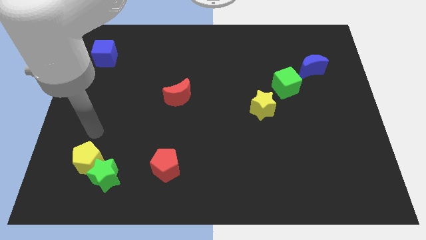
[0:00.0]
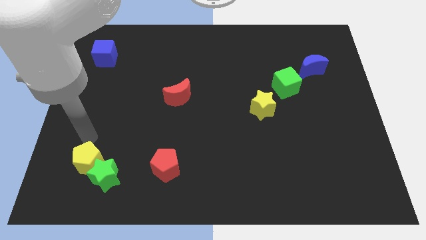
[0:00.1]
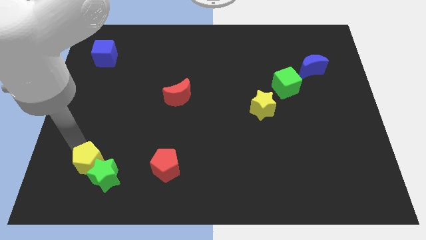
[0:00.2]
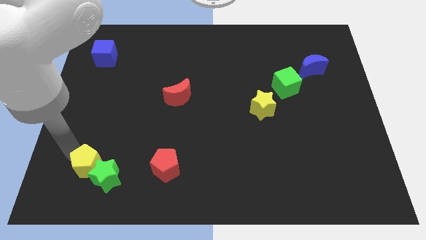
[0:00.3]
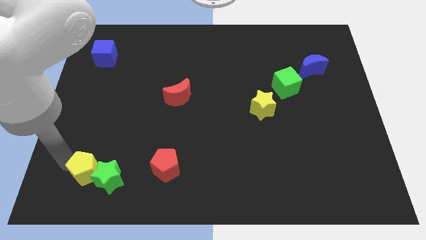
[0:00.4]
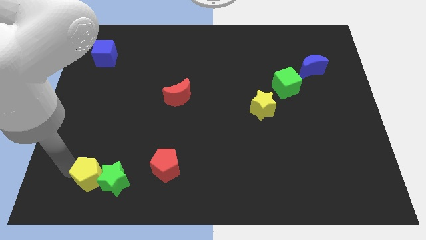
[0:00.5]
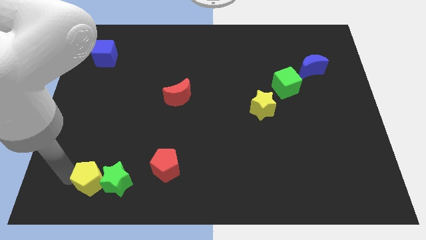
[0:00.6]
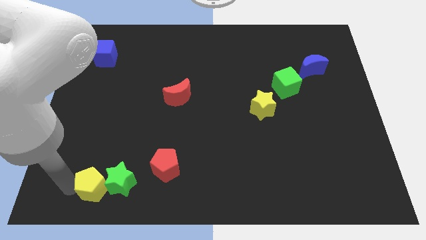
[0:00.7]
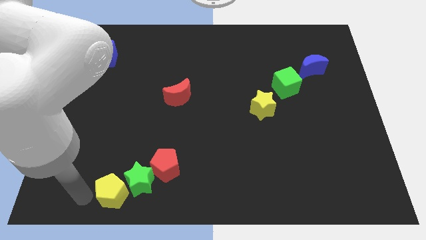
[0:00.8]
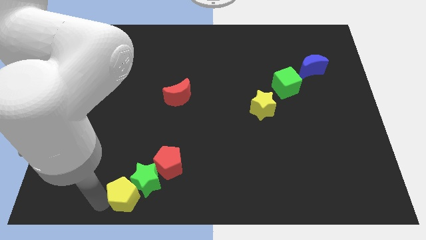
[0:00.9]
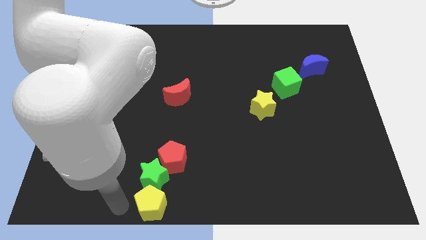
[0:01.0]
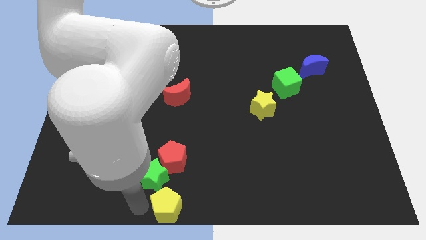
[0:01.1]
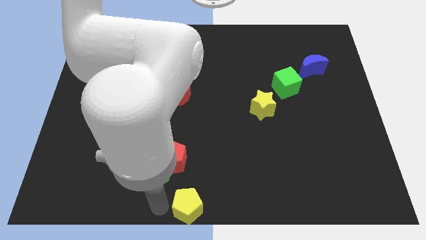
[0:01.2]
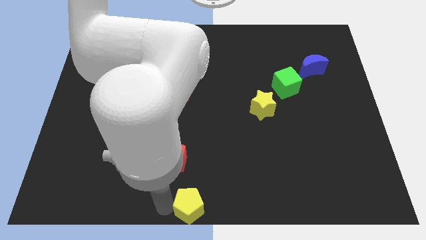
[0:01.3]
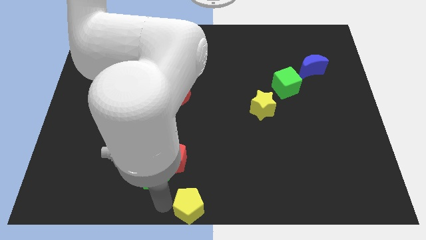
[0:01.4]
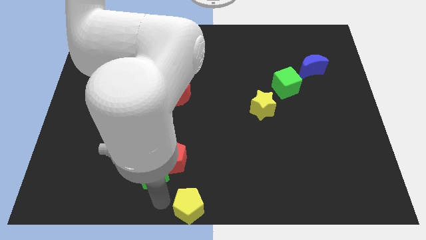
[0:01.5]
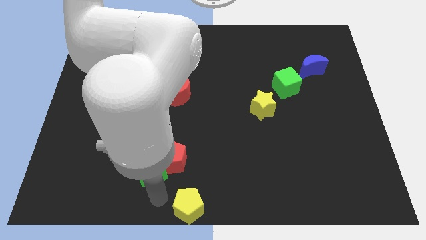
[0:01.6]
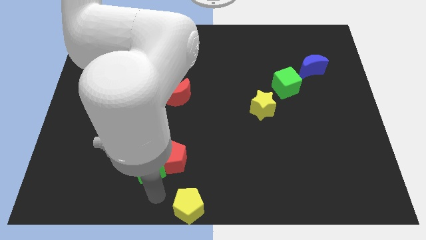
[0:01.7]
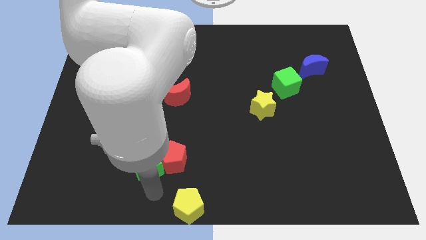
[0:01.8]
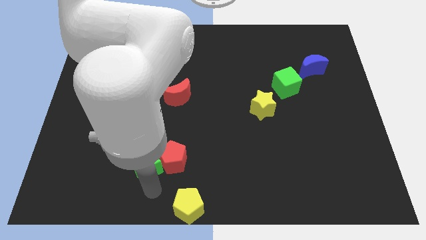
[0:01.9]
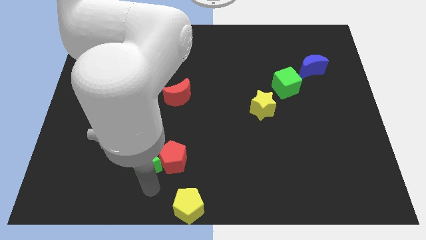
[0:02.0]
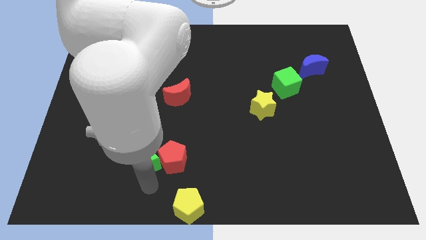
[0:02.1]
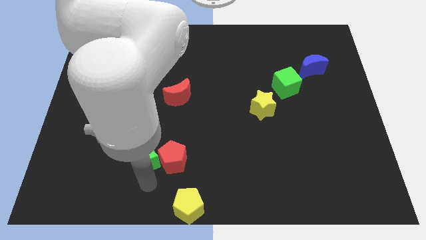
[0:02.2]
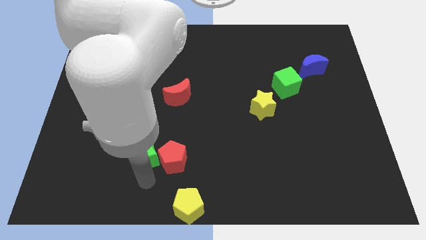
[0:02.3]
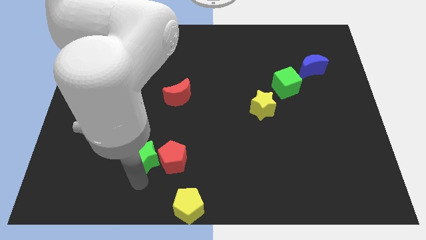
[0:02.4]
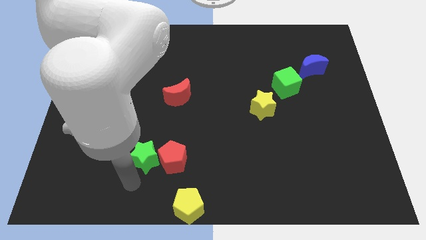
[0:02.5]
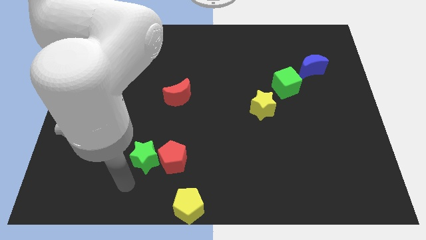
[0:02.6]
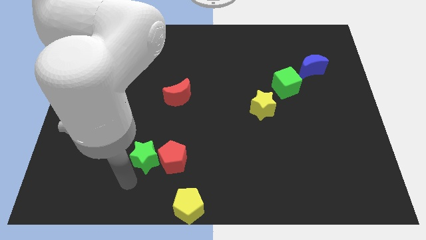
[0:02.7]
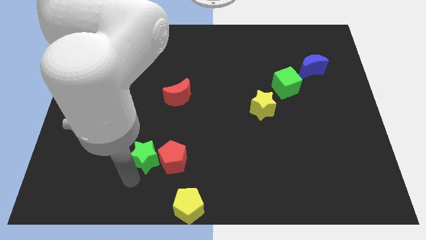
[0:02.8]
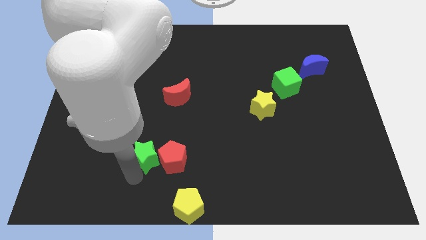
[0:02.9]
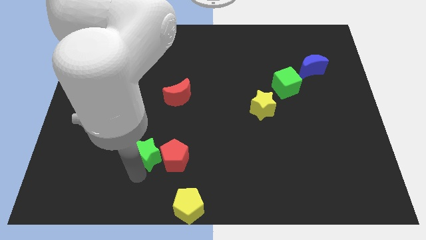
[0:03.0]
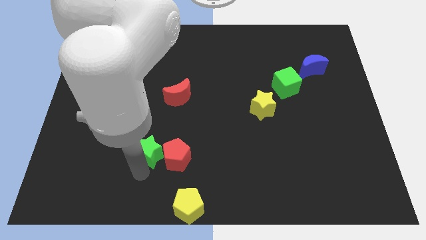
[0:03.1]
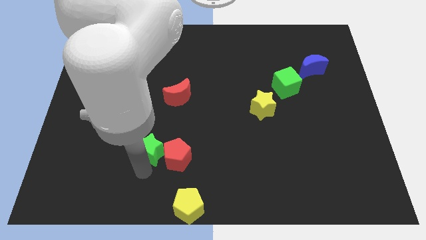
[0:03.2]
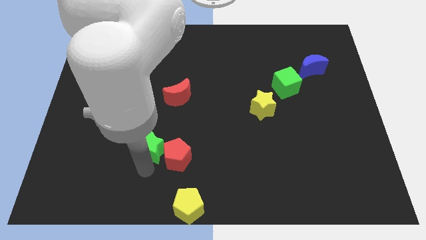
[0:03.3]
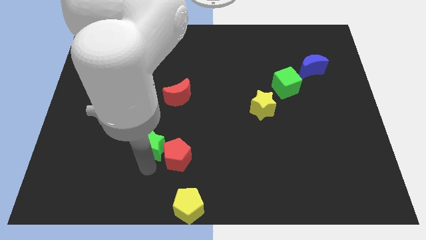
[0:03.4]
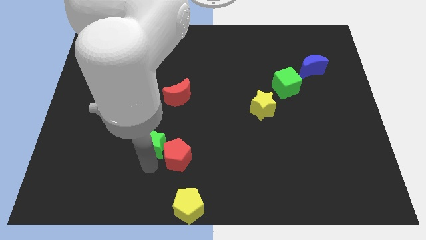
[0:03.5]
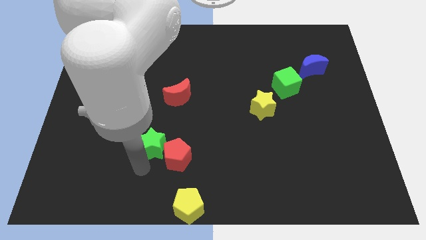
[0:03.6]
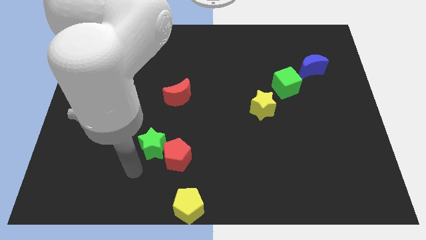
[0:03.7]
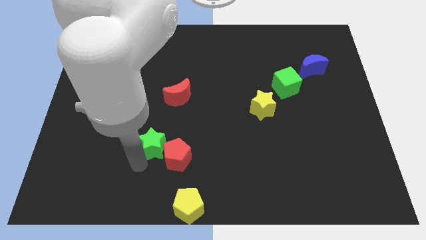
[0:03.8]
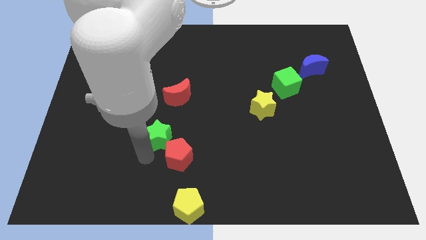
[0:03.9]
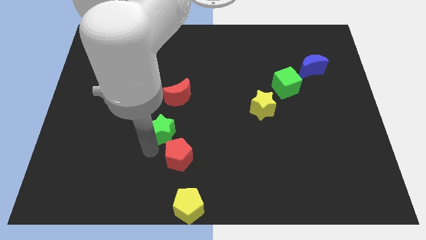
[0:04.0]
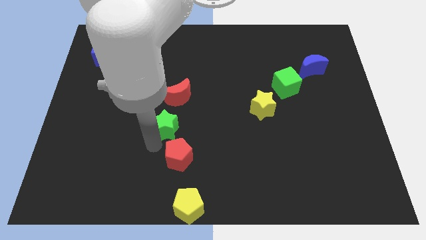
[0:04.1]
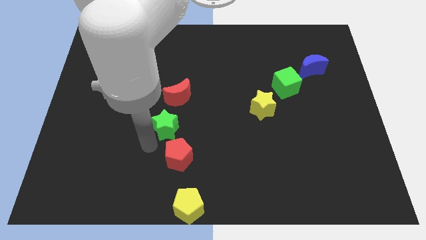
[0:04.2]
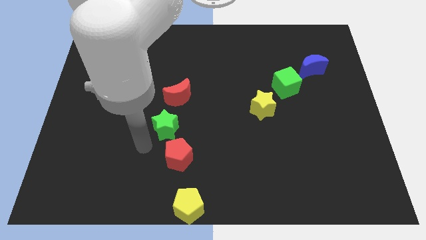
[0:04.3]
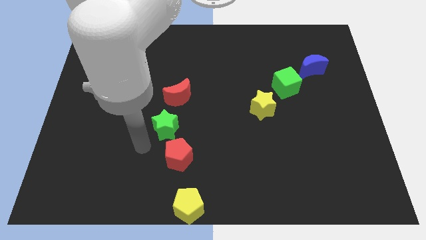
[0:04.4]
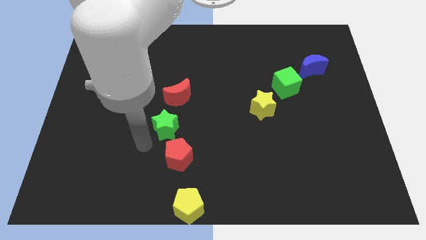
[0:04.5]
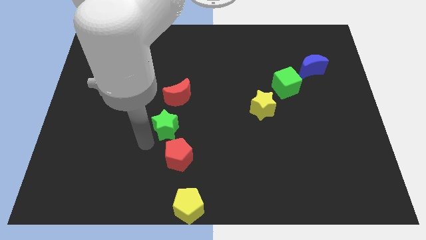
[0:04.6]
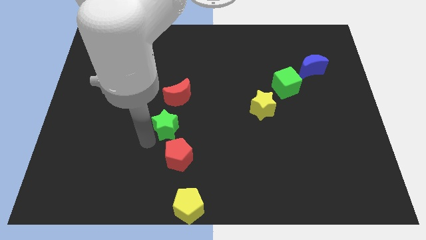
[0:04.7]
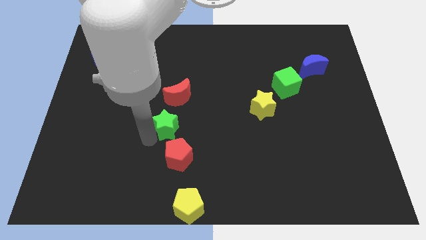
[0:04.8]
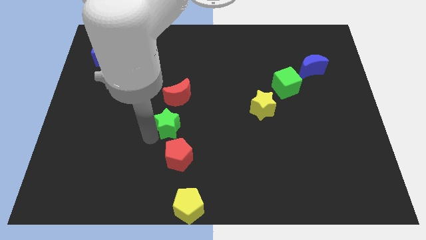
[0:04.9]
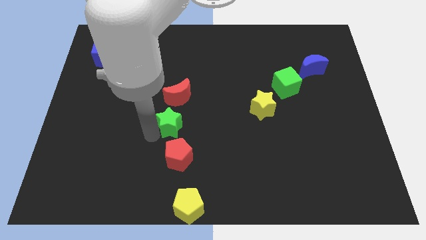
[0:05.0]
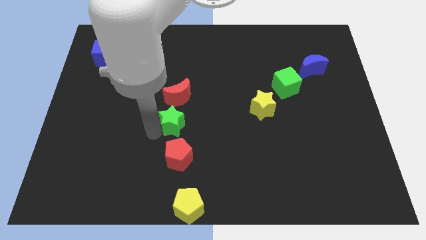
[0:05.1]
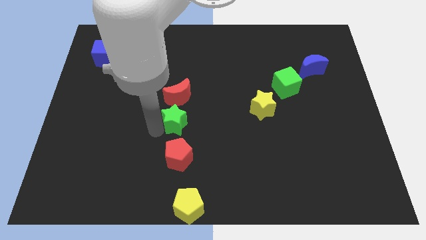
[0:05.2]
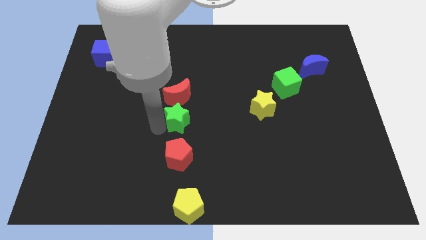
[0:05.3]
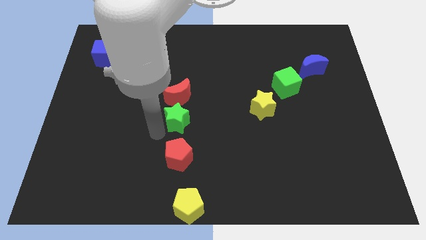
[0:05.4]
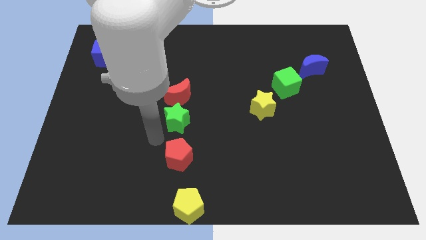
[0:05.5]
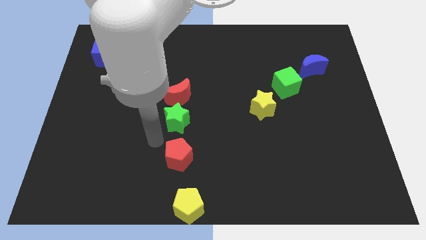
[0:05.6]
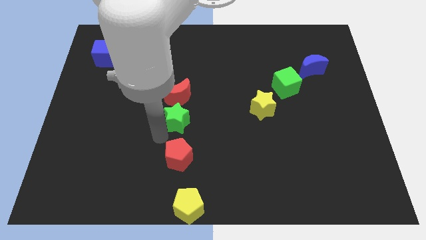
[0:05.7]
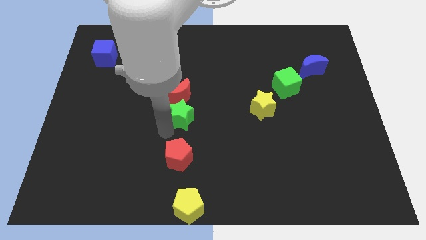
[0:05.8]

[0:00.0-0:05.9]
move the green star upwards and right diagonally

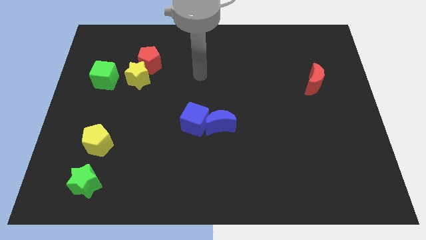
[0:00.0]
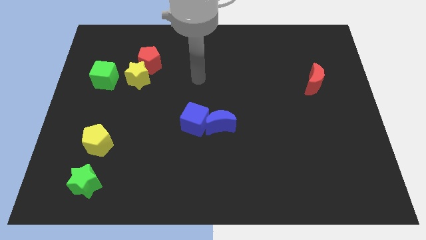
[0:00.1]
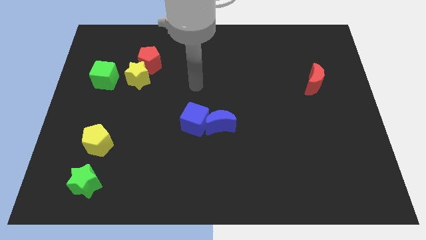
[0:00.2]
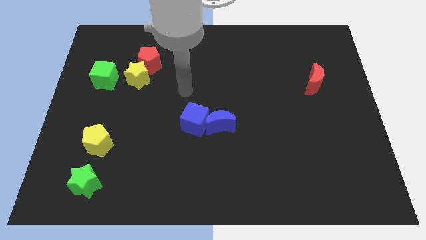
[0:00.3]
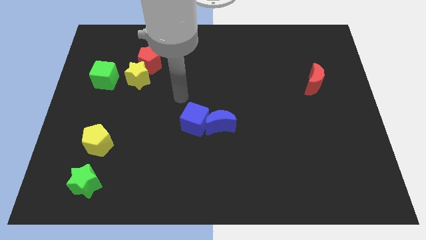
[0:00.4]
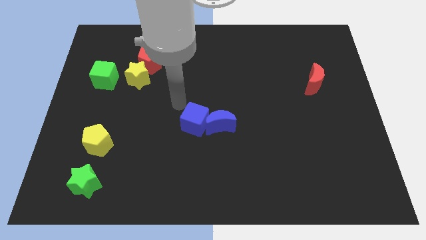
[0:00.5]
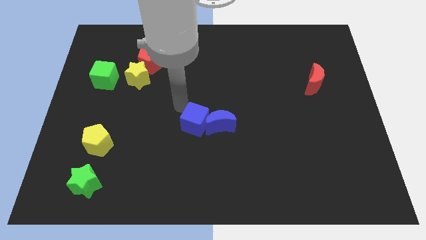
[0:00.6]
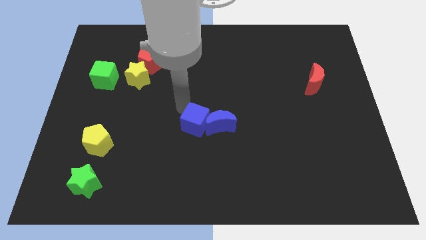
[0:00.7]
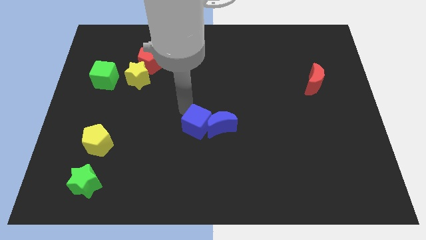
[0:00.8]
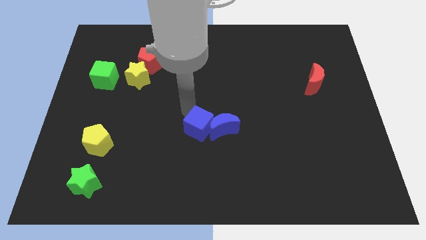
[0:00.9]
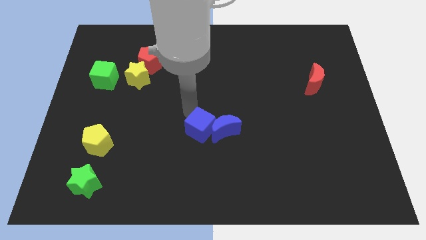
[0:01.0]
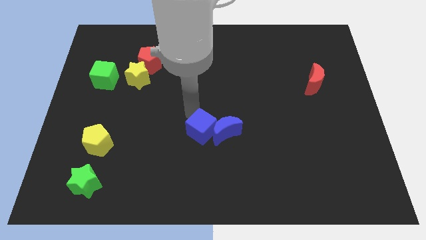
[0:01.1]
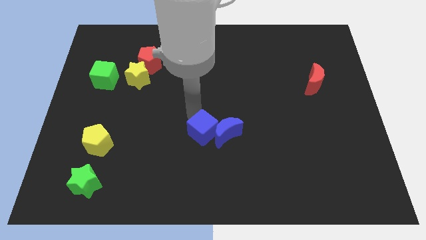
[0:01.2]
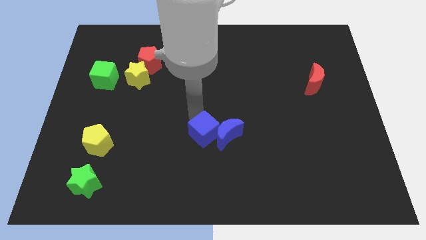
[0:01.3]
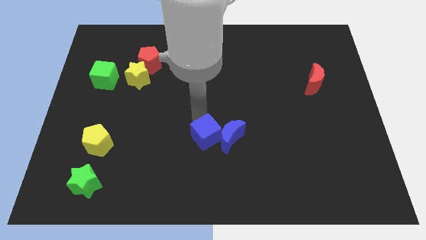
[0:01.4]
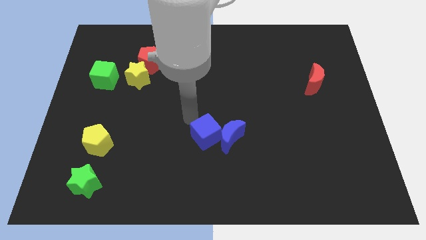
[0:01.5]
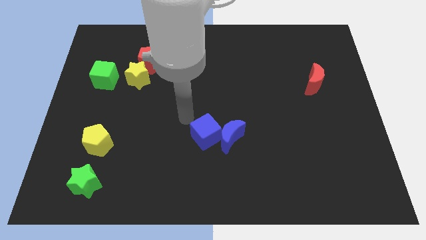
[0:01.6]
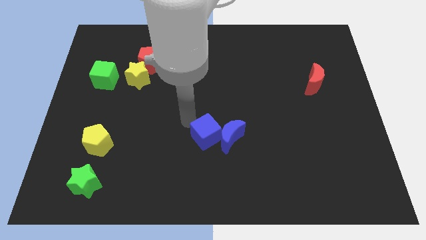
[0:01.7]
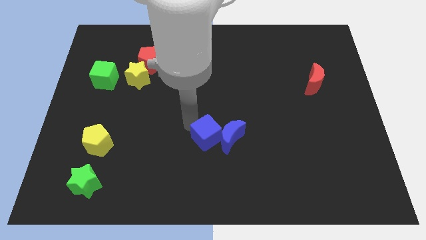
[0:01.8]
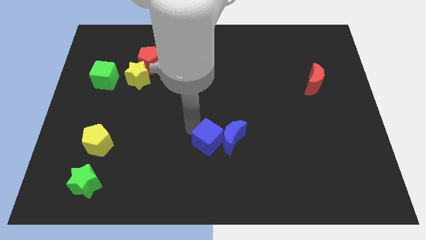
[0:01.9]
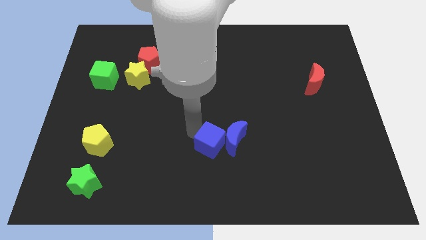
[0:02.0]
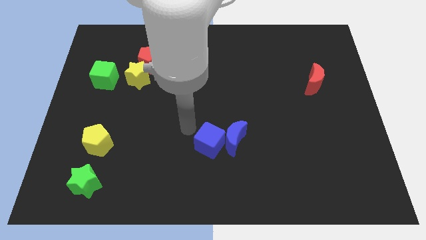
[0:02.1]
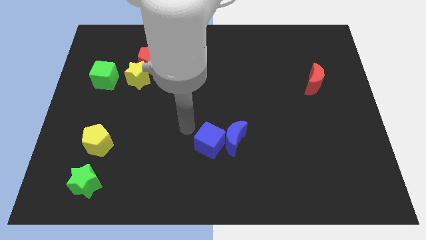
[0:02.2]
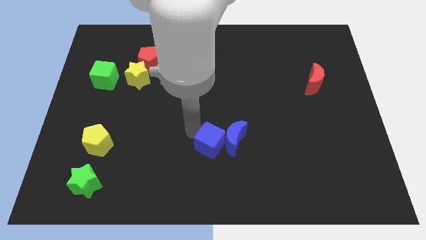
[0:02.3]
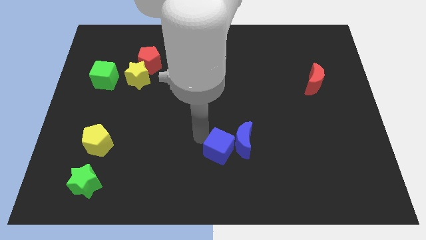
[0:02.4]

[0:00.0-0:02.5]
move the blue cube a little bit down and then to the right
